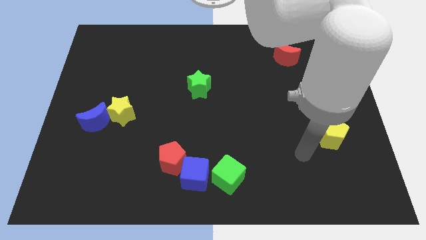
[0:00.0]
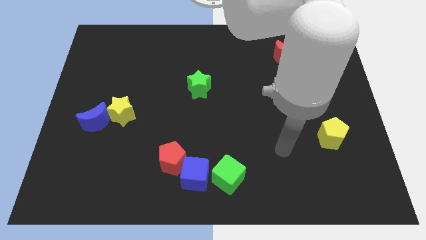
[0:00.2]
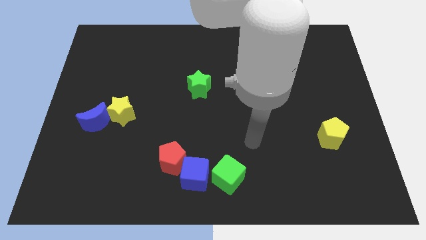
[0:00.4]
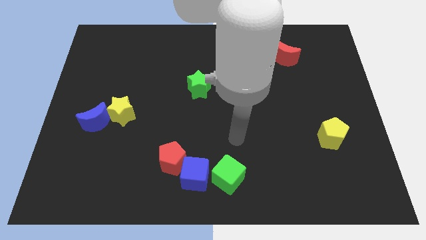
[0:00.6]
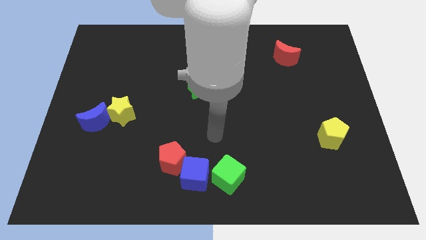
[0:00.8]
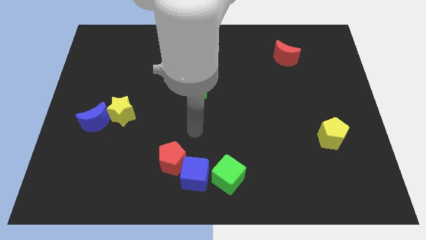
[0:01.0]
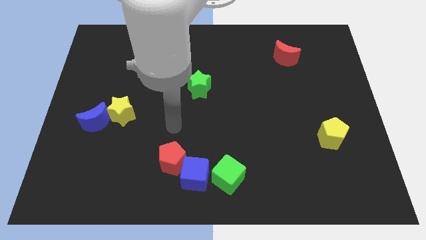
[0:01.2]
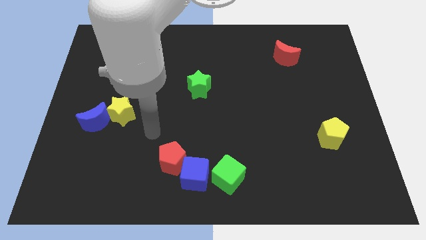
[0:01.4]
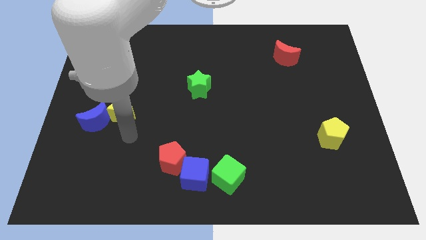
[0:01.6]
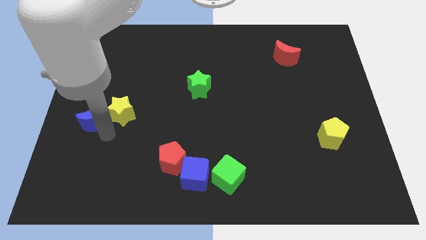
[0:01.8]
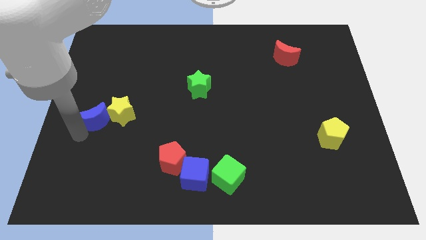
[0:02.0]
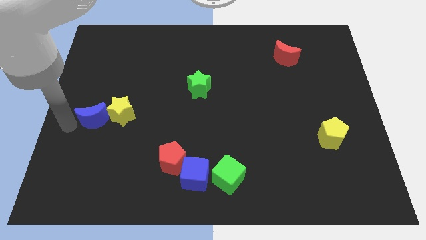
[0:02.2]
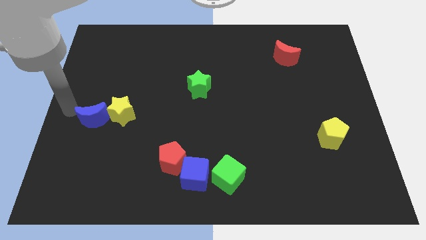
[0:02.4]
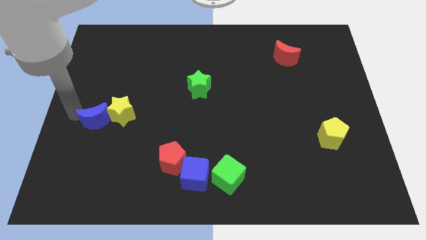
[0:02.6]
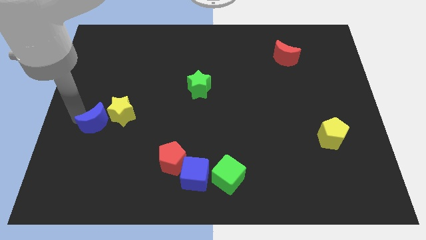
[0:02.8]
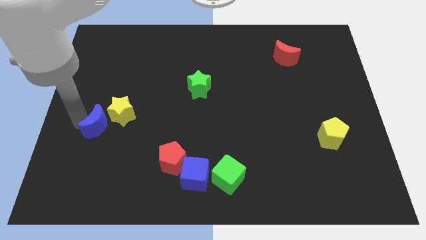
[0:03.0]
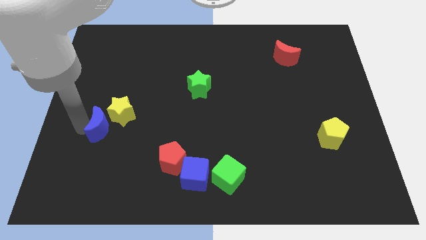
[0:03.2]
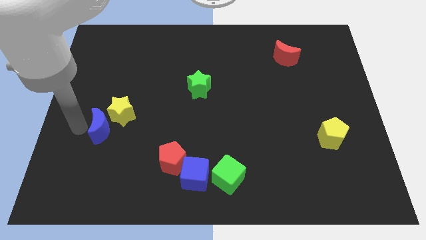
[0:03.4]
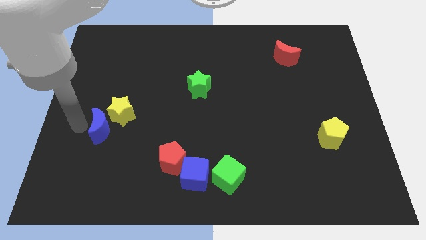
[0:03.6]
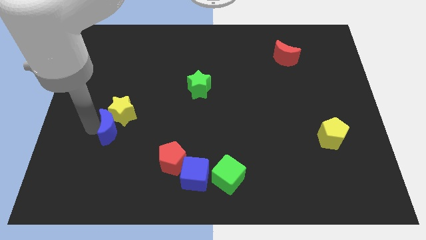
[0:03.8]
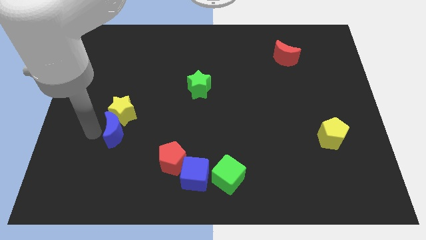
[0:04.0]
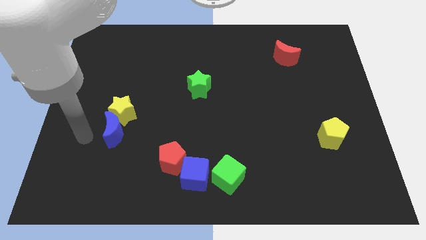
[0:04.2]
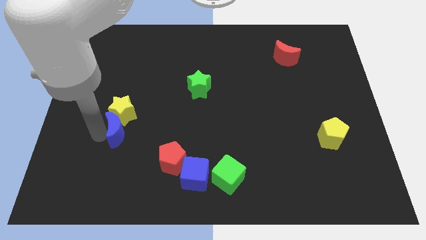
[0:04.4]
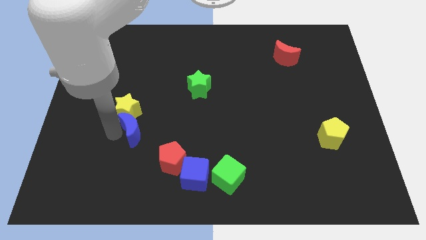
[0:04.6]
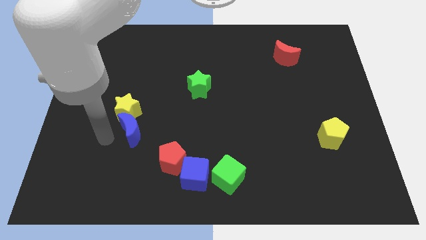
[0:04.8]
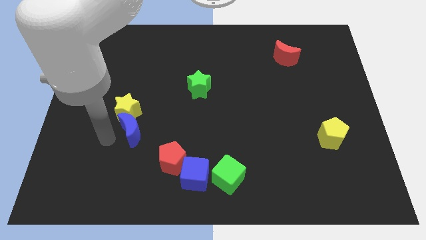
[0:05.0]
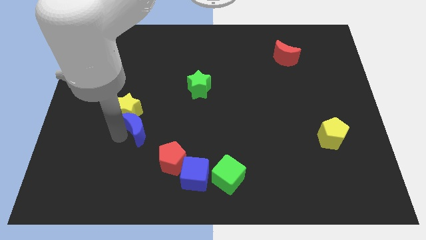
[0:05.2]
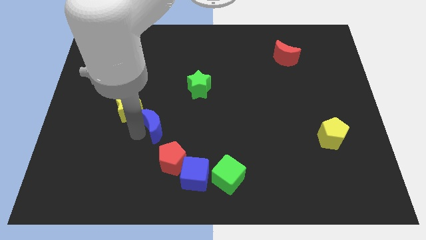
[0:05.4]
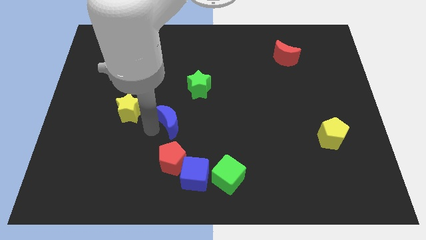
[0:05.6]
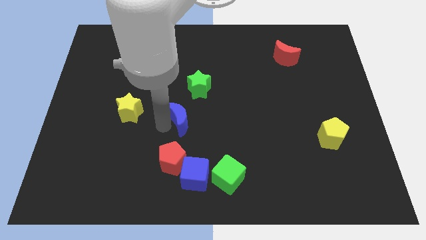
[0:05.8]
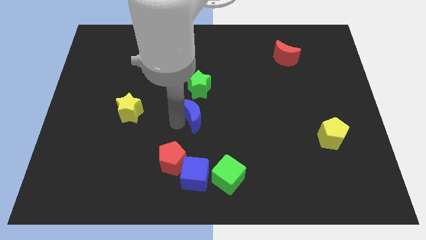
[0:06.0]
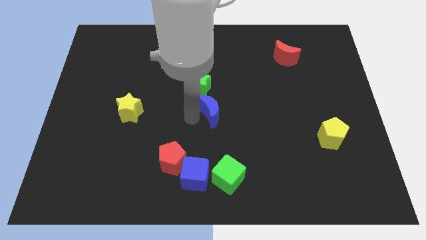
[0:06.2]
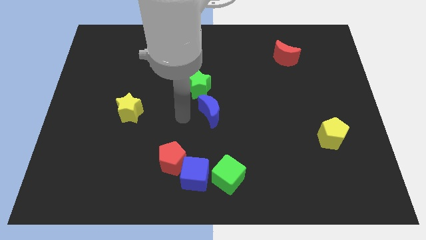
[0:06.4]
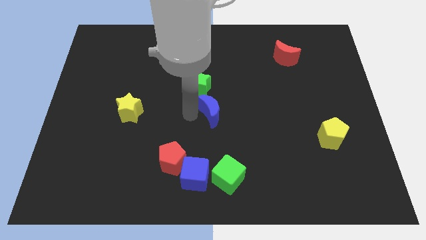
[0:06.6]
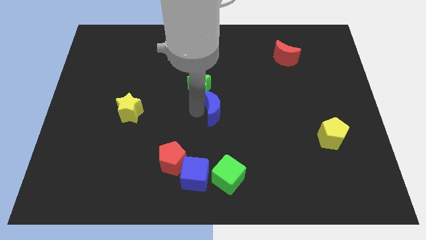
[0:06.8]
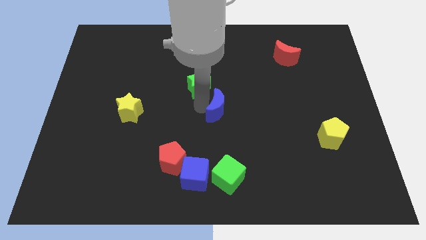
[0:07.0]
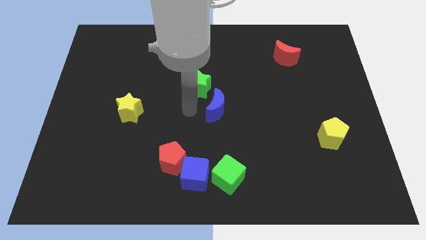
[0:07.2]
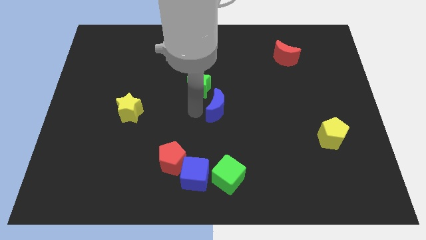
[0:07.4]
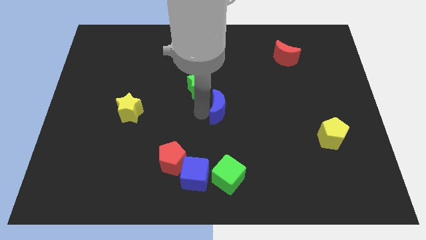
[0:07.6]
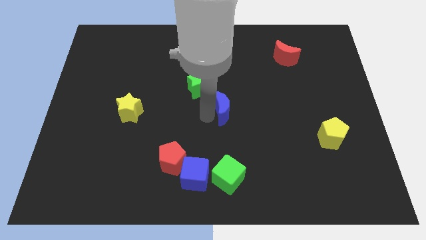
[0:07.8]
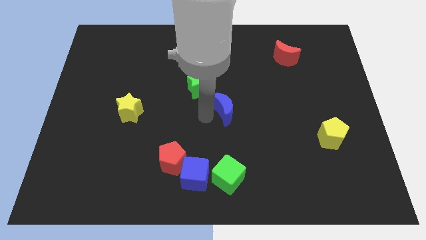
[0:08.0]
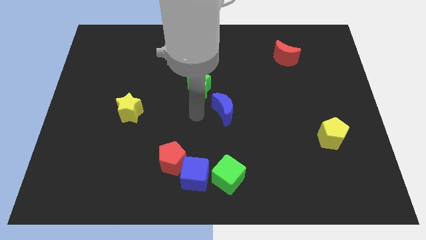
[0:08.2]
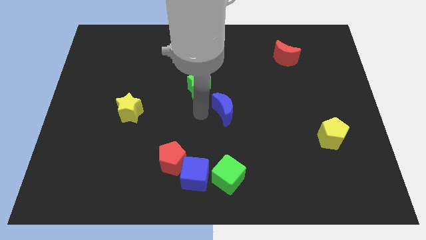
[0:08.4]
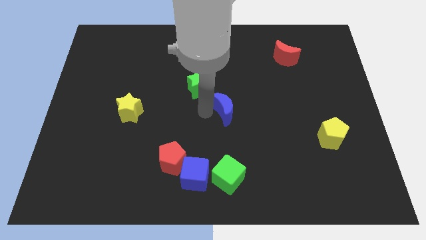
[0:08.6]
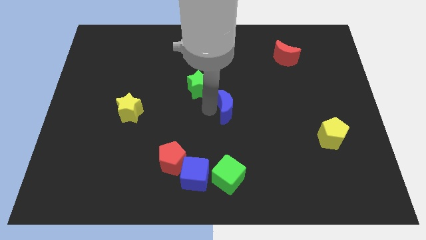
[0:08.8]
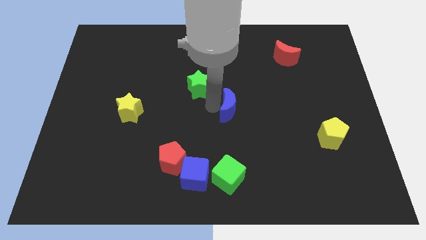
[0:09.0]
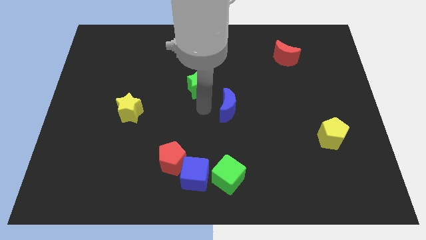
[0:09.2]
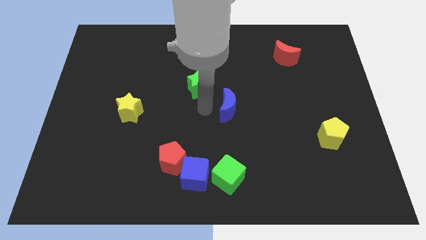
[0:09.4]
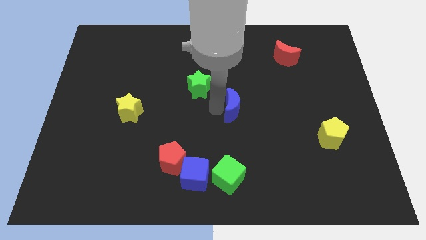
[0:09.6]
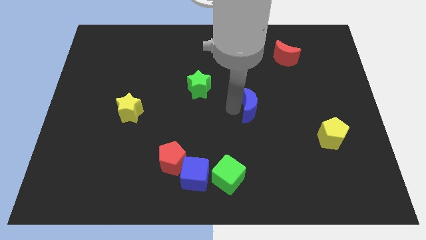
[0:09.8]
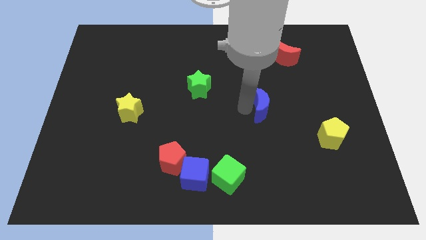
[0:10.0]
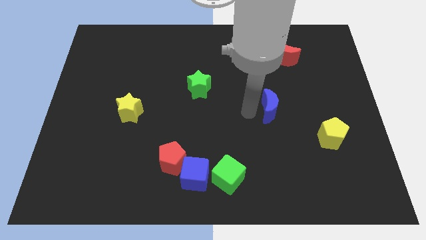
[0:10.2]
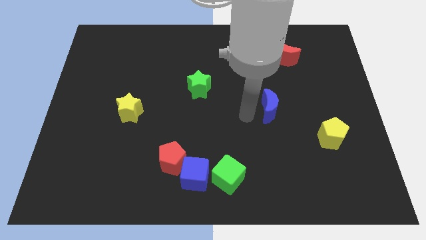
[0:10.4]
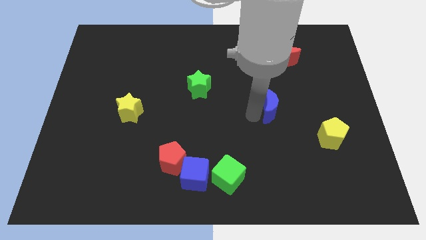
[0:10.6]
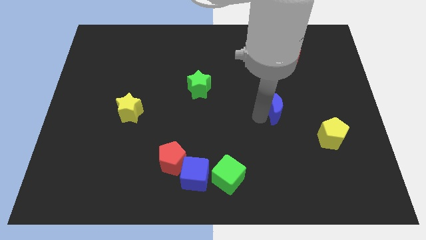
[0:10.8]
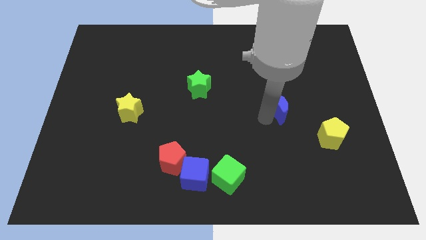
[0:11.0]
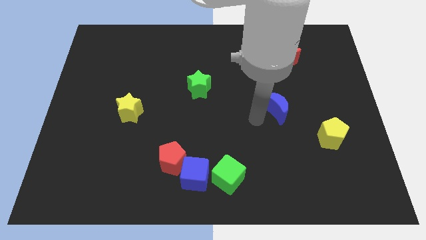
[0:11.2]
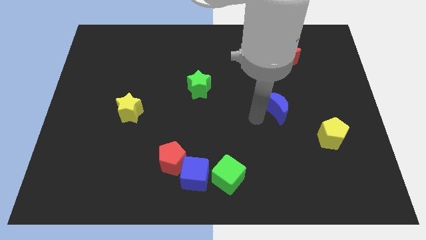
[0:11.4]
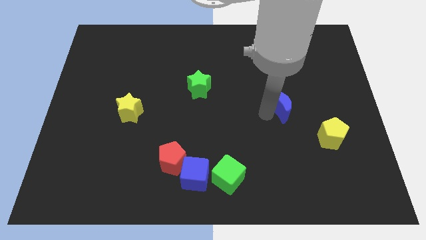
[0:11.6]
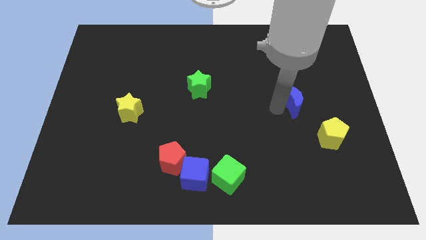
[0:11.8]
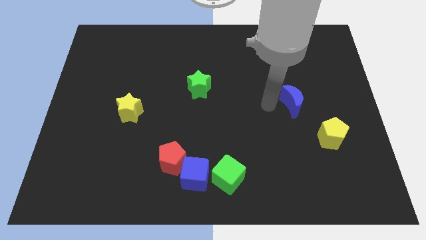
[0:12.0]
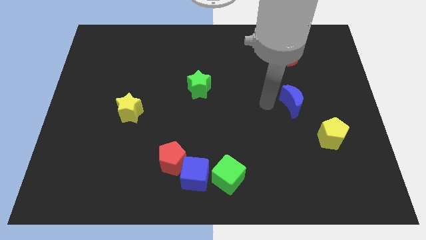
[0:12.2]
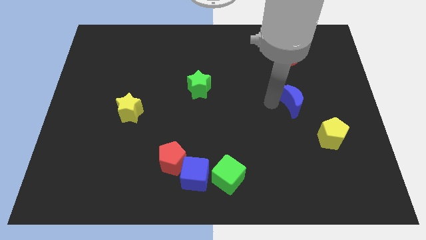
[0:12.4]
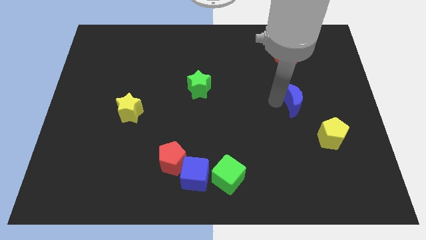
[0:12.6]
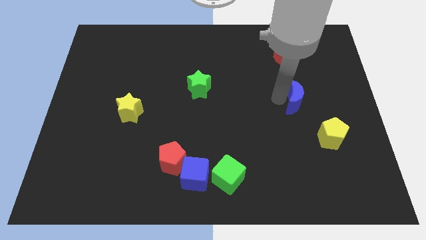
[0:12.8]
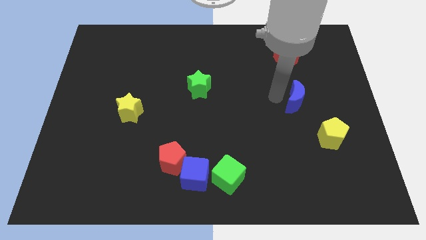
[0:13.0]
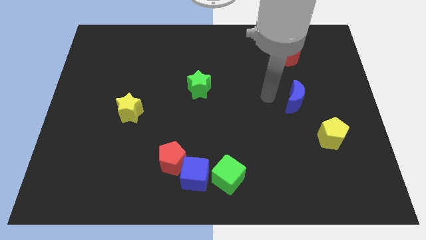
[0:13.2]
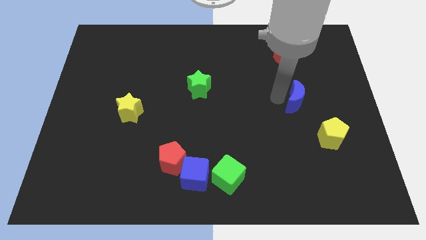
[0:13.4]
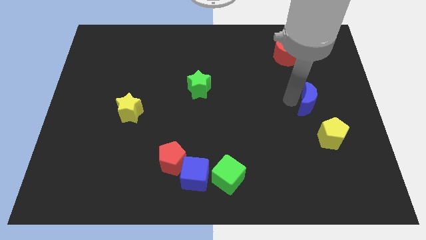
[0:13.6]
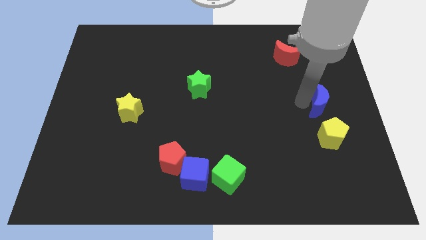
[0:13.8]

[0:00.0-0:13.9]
slide the blue moon to the center right
